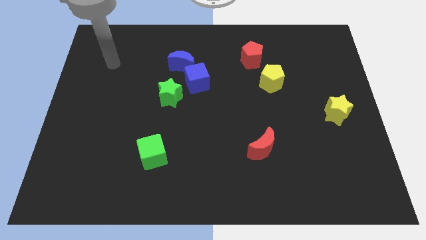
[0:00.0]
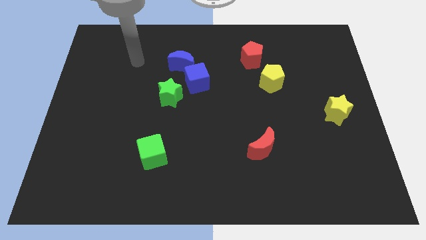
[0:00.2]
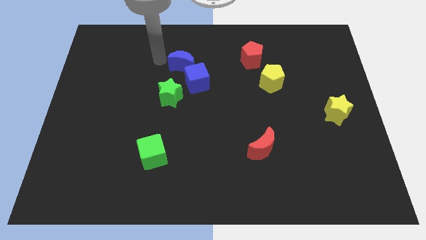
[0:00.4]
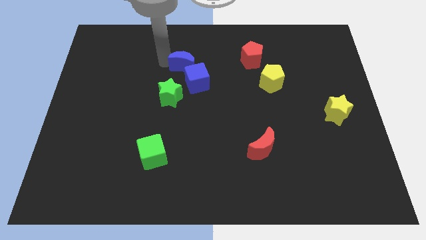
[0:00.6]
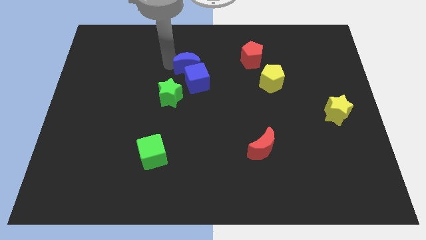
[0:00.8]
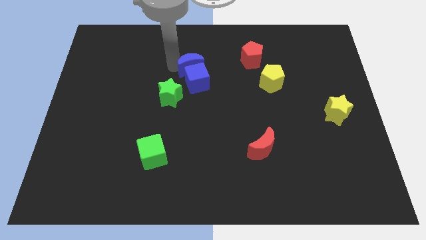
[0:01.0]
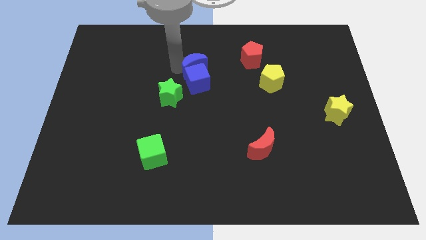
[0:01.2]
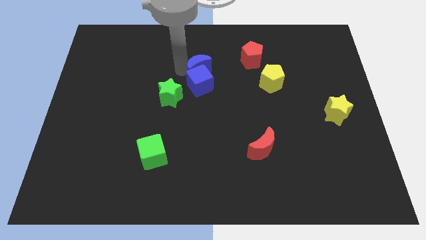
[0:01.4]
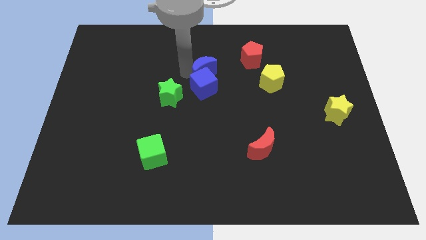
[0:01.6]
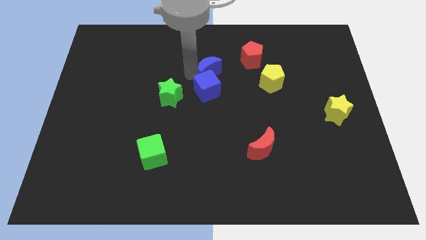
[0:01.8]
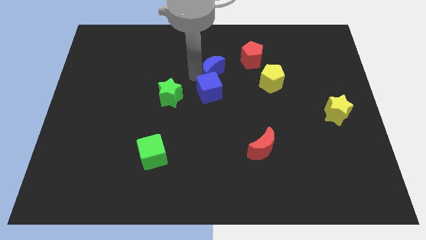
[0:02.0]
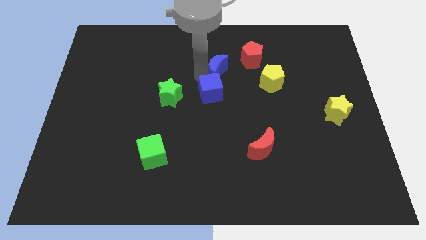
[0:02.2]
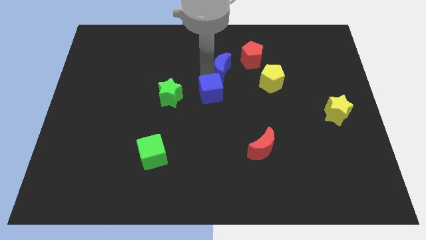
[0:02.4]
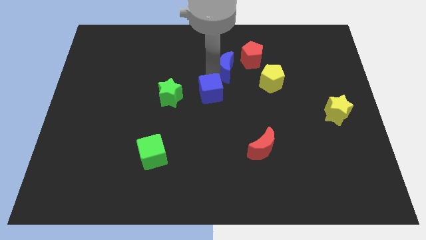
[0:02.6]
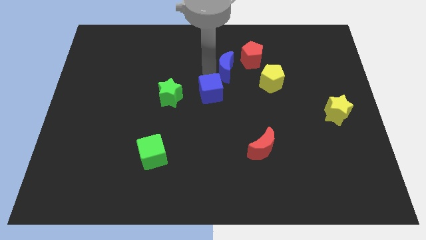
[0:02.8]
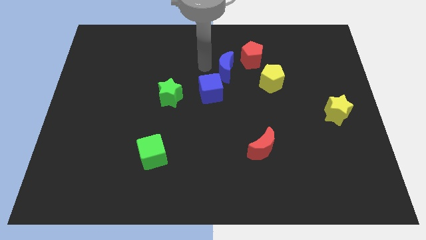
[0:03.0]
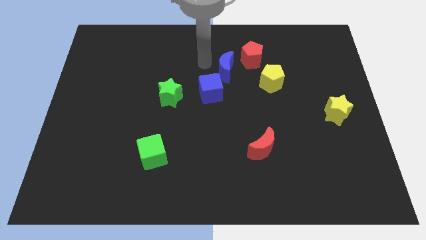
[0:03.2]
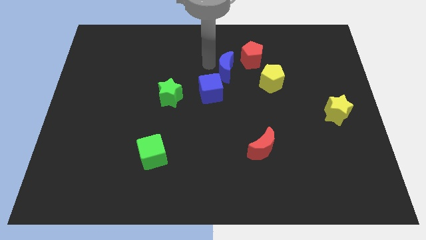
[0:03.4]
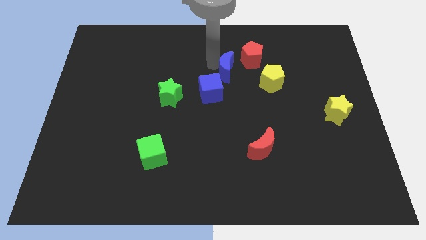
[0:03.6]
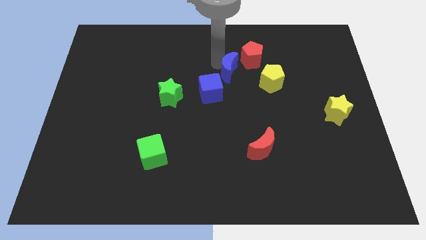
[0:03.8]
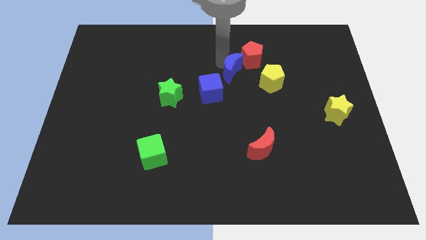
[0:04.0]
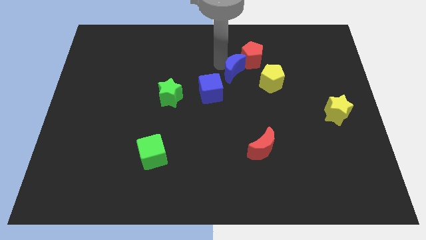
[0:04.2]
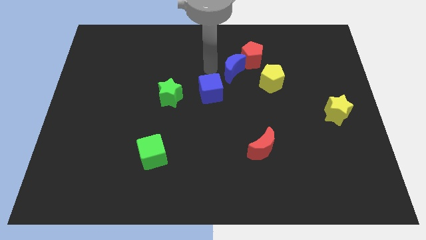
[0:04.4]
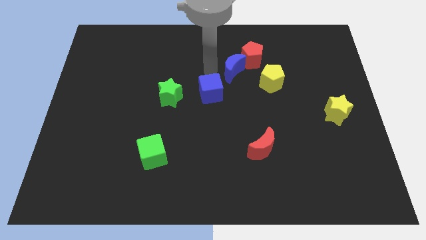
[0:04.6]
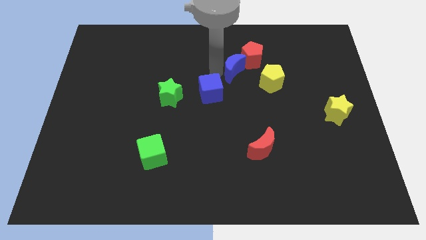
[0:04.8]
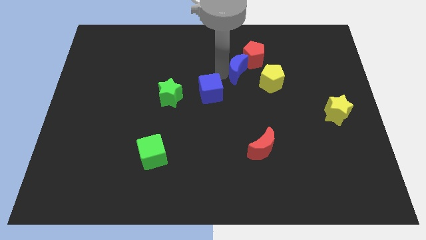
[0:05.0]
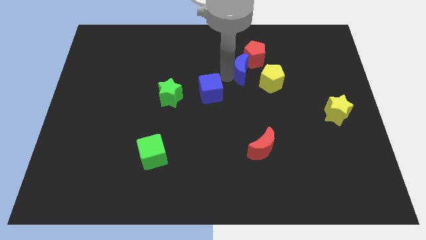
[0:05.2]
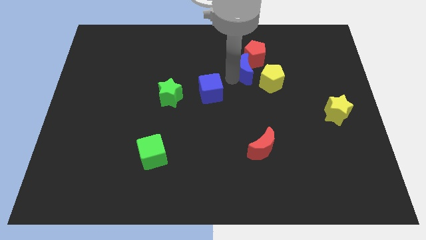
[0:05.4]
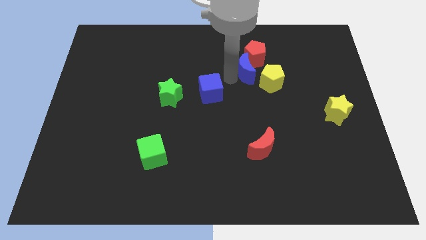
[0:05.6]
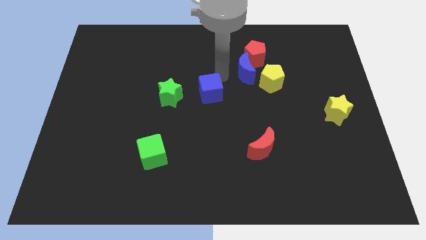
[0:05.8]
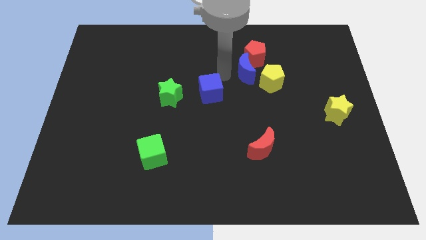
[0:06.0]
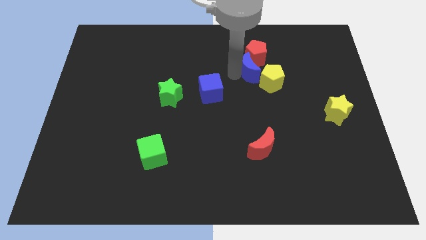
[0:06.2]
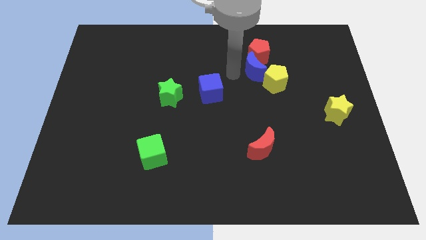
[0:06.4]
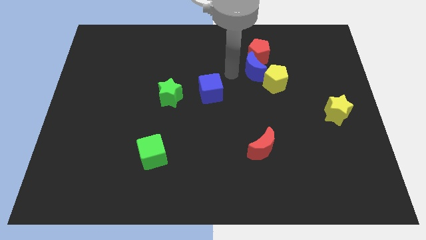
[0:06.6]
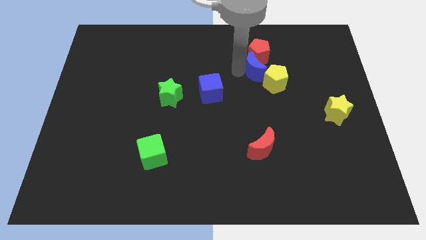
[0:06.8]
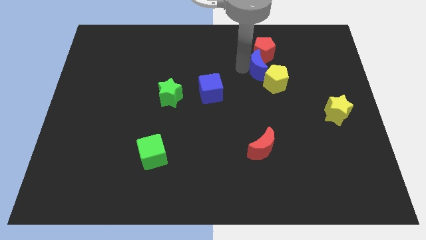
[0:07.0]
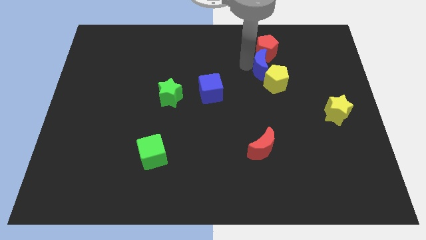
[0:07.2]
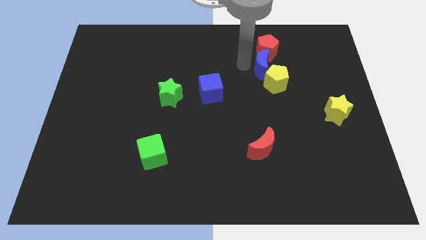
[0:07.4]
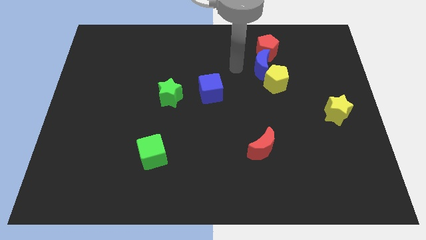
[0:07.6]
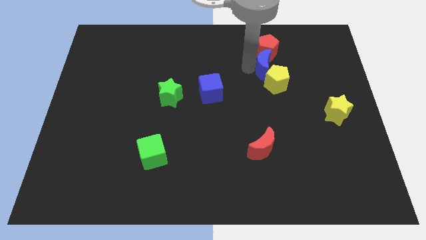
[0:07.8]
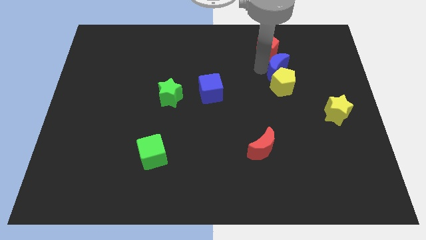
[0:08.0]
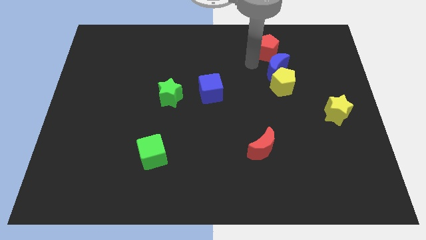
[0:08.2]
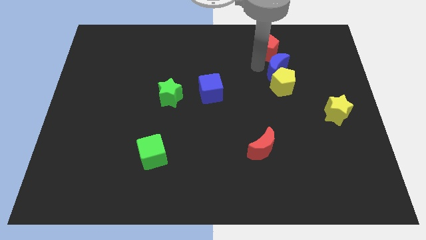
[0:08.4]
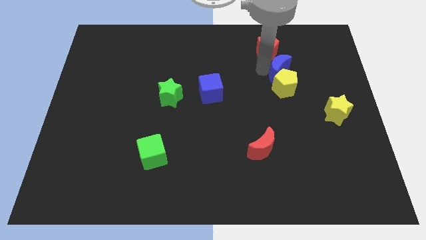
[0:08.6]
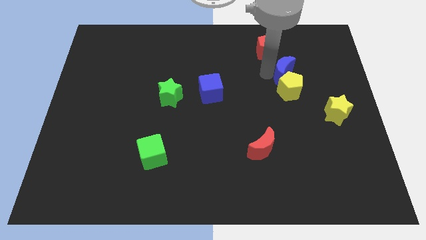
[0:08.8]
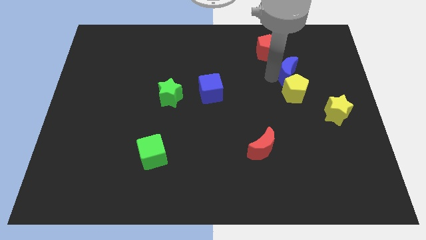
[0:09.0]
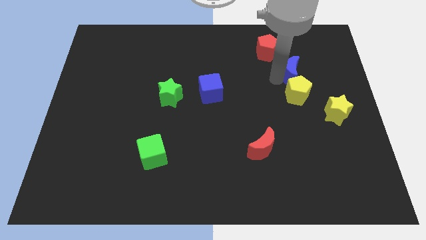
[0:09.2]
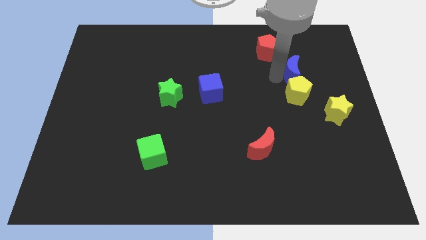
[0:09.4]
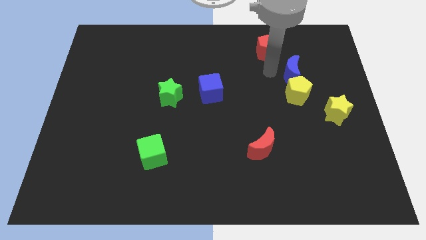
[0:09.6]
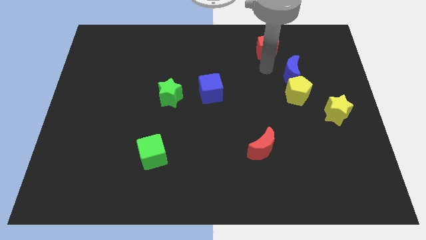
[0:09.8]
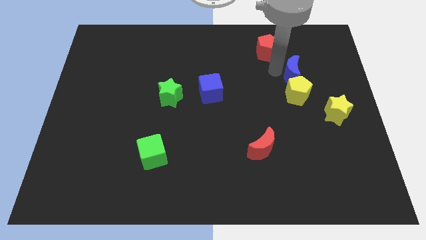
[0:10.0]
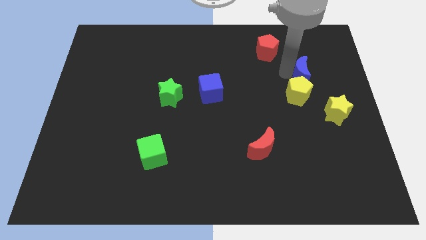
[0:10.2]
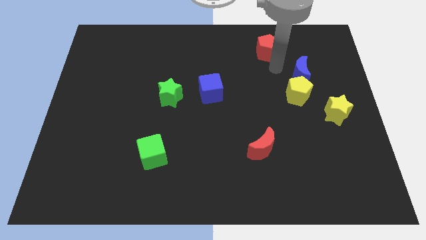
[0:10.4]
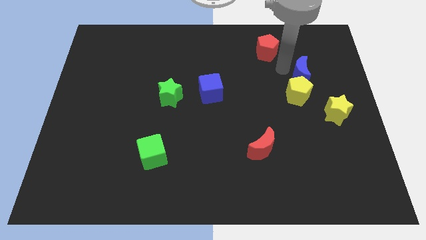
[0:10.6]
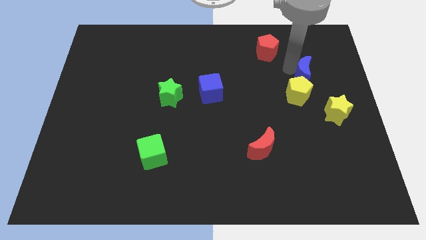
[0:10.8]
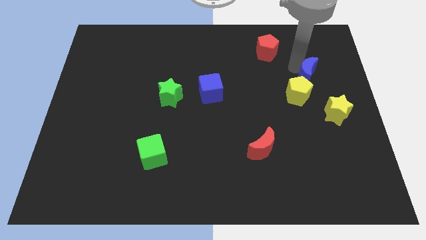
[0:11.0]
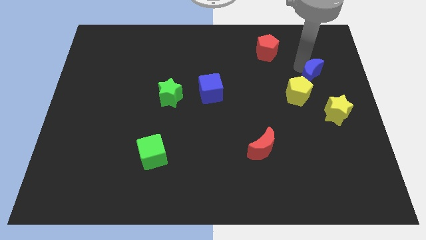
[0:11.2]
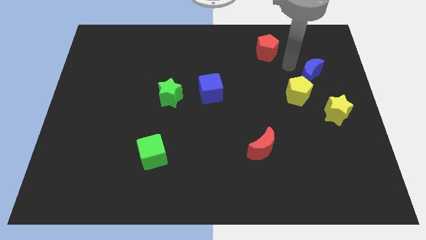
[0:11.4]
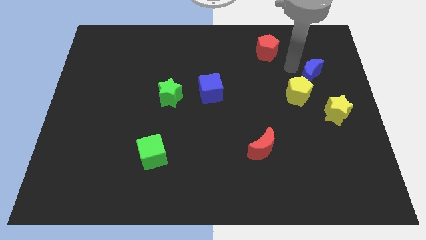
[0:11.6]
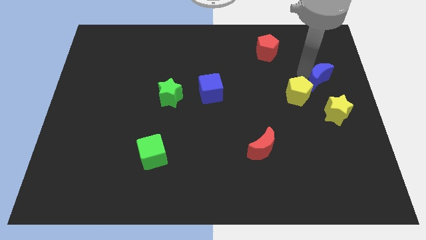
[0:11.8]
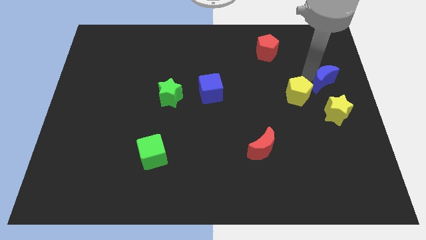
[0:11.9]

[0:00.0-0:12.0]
move the blue moon to the center right
